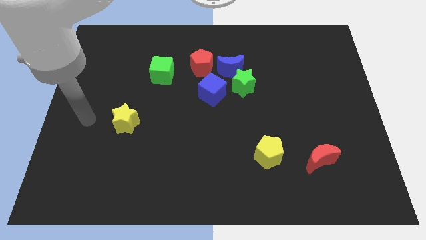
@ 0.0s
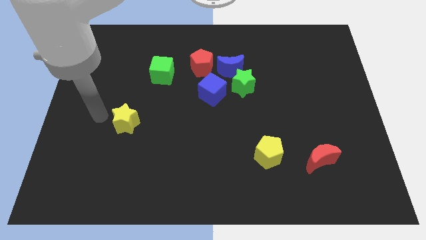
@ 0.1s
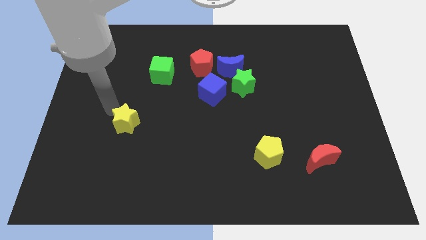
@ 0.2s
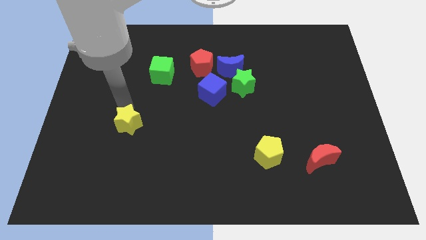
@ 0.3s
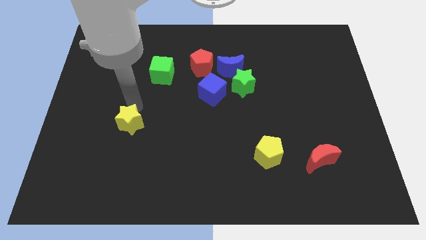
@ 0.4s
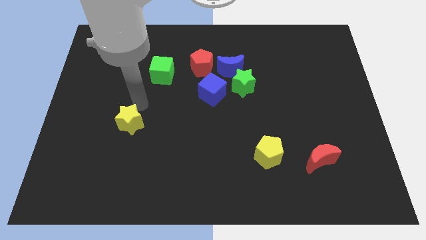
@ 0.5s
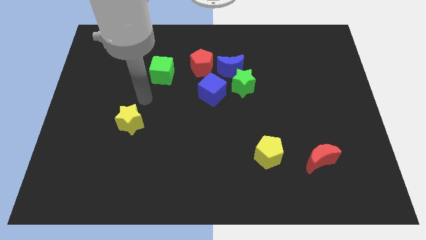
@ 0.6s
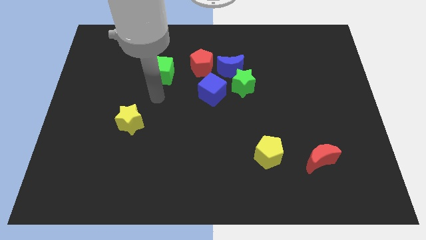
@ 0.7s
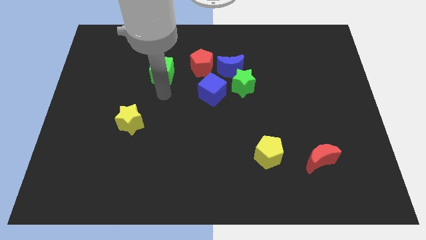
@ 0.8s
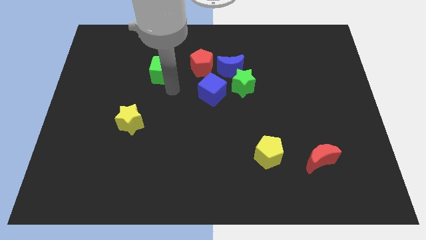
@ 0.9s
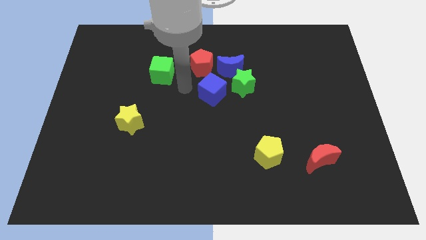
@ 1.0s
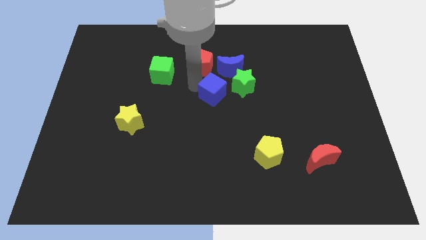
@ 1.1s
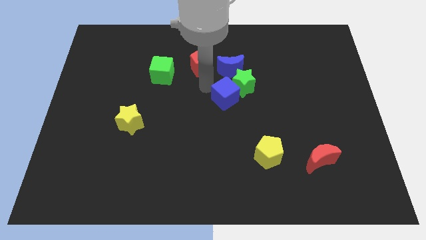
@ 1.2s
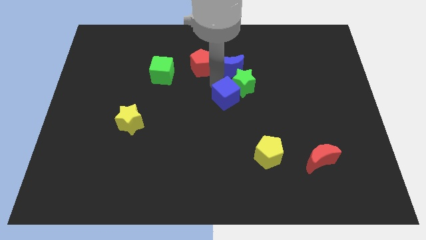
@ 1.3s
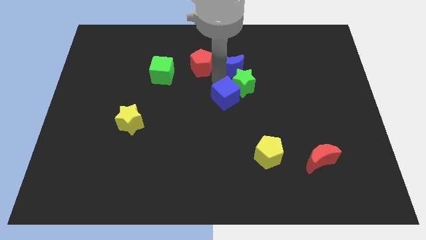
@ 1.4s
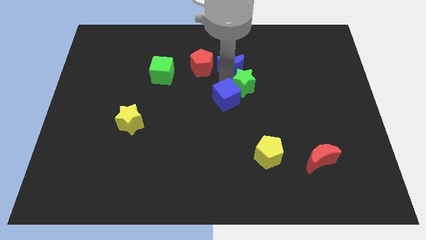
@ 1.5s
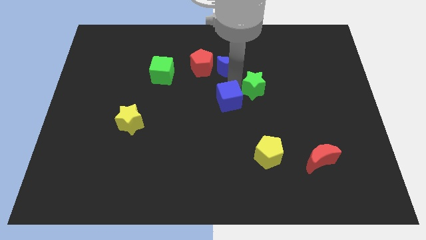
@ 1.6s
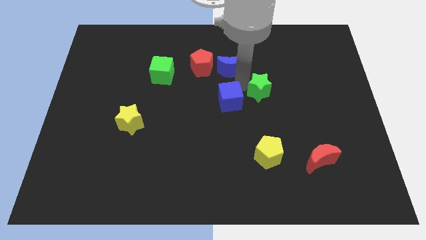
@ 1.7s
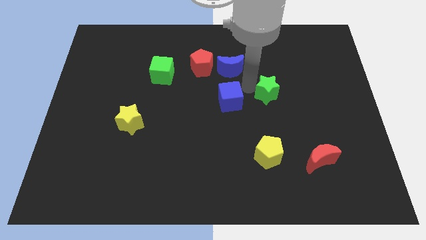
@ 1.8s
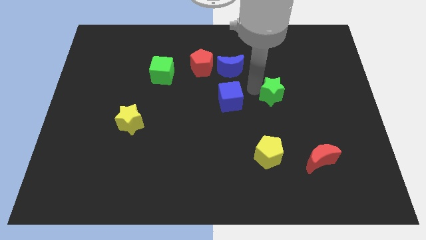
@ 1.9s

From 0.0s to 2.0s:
move the green star away from the blue moon and blue cube

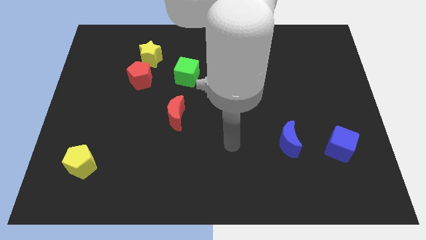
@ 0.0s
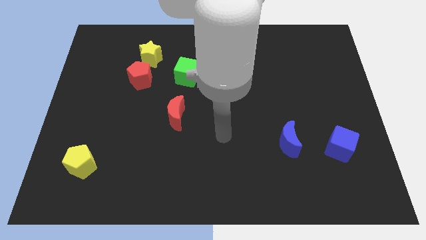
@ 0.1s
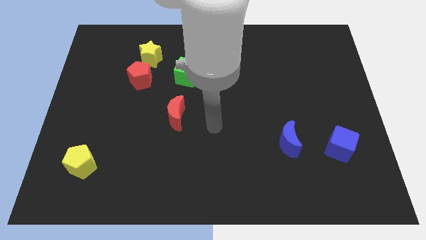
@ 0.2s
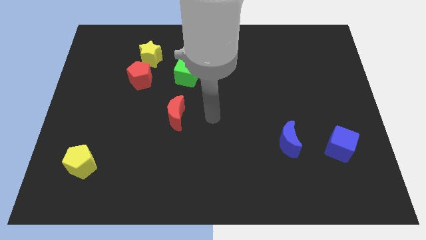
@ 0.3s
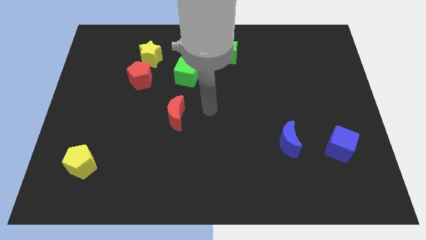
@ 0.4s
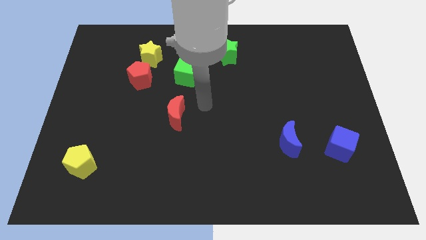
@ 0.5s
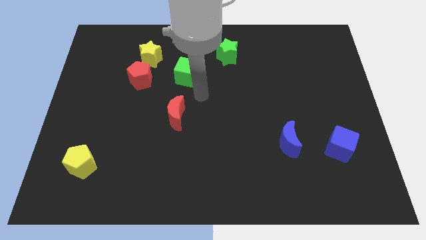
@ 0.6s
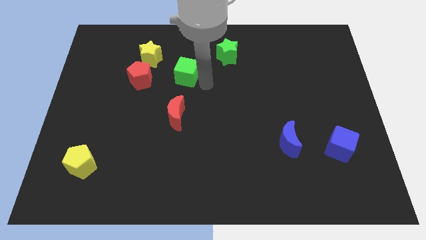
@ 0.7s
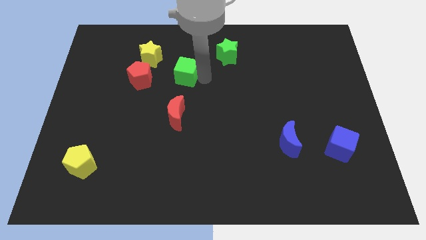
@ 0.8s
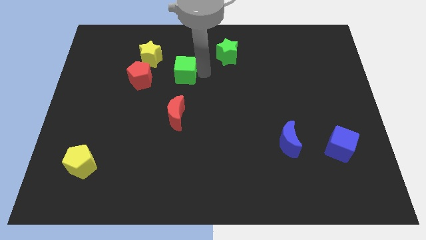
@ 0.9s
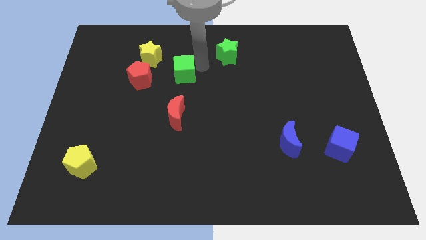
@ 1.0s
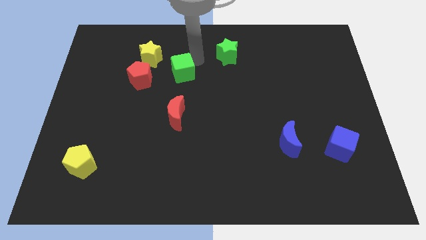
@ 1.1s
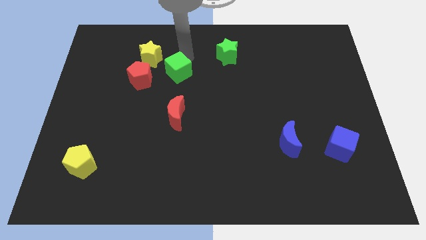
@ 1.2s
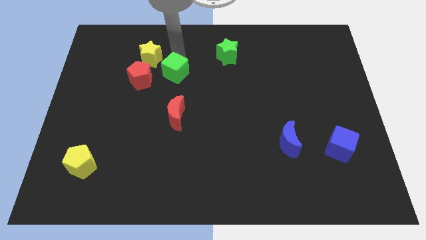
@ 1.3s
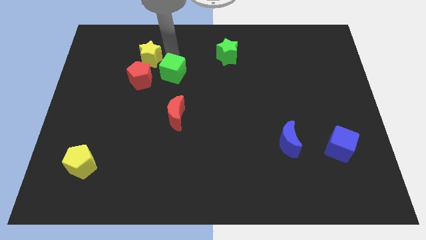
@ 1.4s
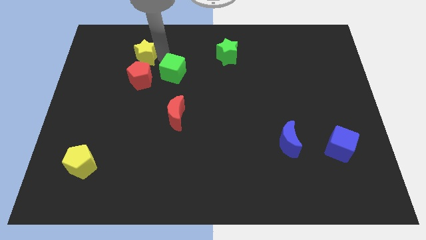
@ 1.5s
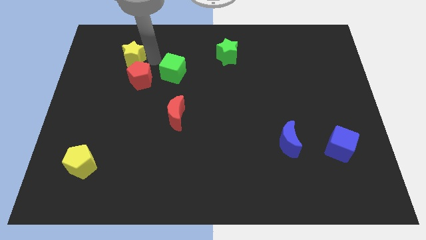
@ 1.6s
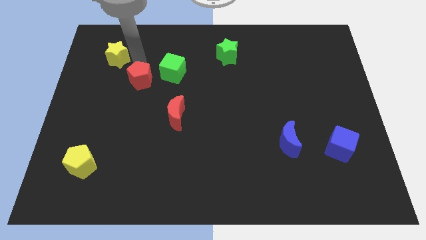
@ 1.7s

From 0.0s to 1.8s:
separate the red pentagon from the yellow star

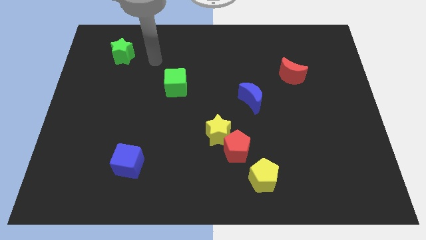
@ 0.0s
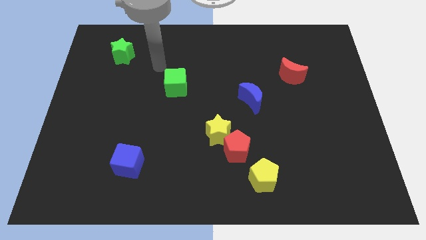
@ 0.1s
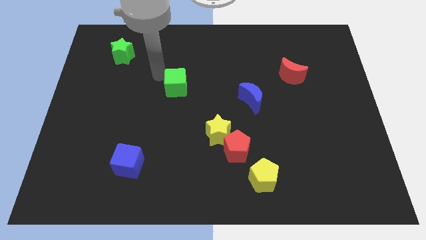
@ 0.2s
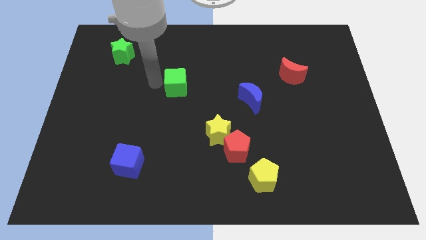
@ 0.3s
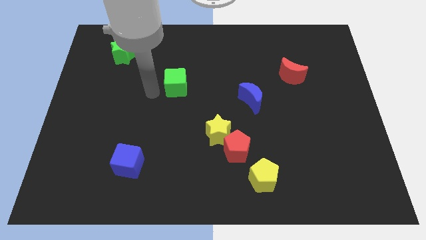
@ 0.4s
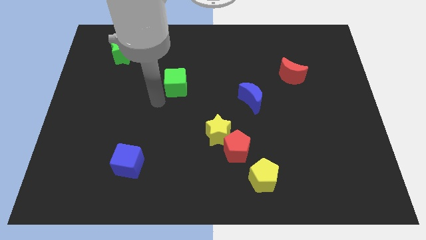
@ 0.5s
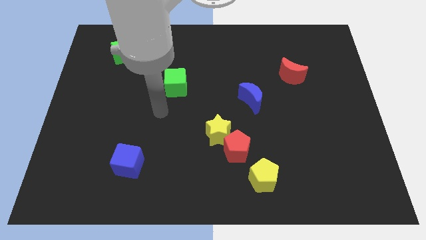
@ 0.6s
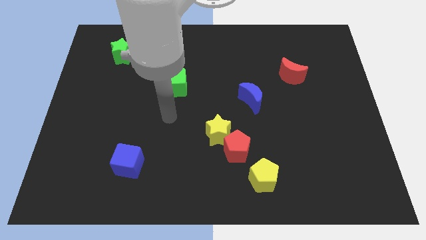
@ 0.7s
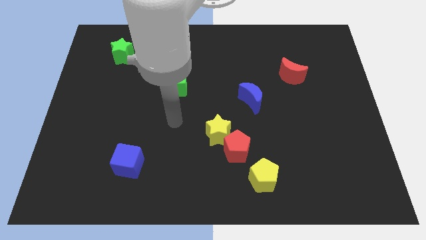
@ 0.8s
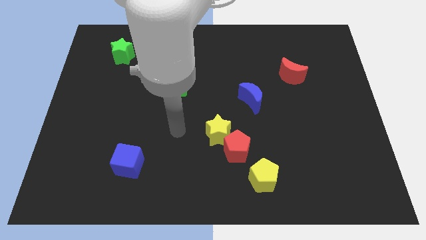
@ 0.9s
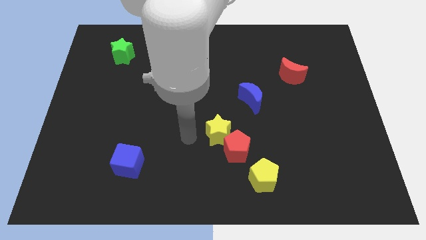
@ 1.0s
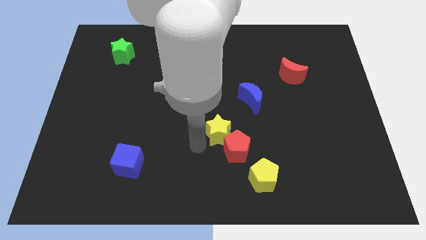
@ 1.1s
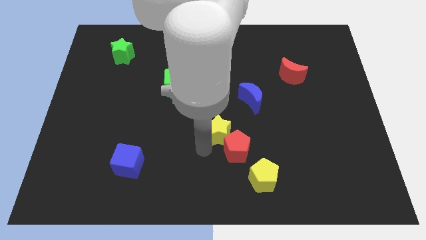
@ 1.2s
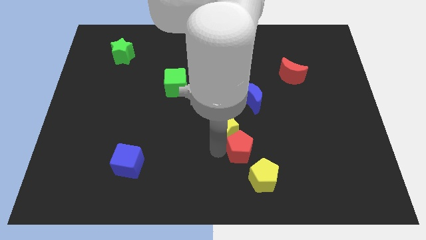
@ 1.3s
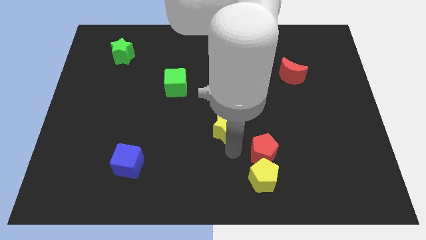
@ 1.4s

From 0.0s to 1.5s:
pull the yellow star apart from the red pentagon

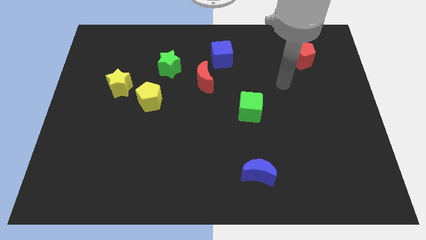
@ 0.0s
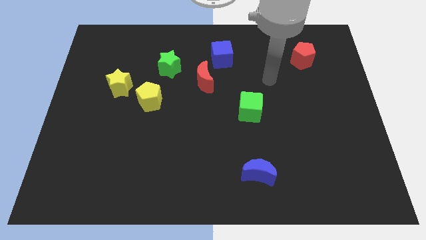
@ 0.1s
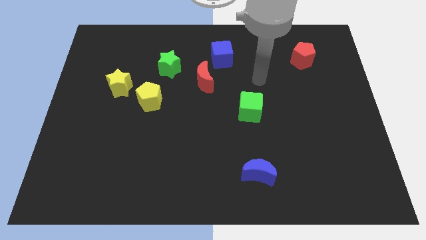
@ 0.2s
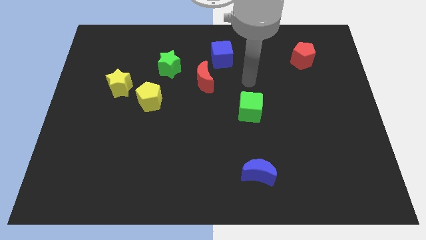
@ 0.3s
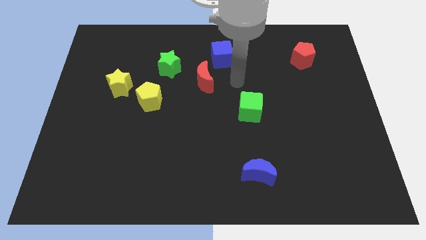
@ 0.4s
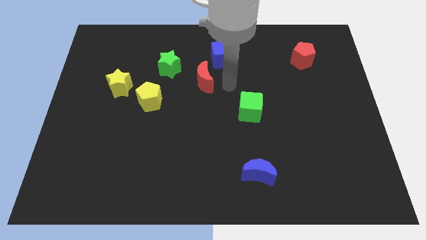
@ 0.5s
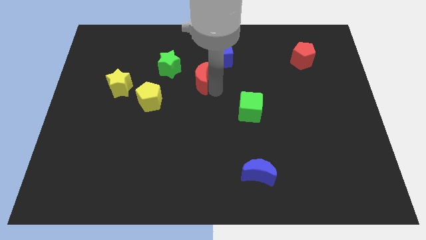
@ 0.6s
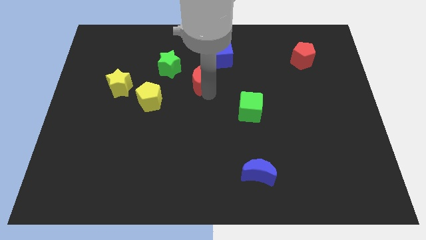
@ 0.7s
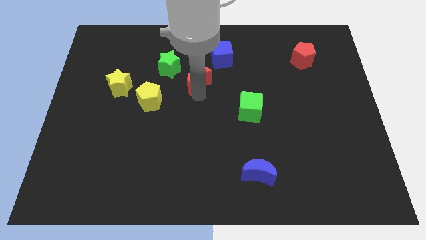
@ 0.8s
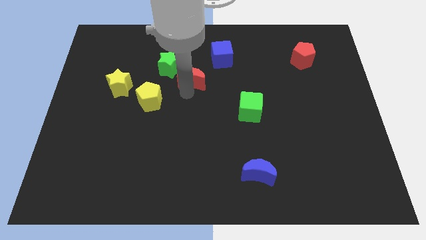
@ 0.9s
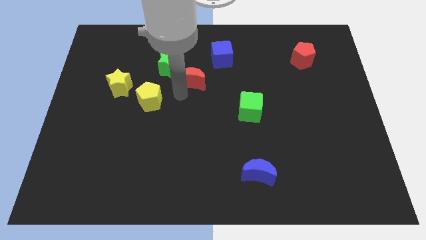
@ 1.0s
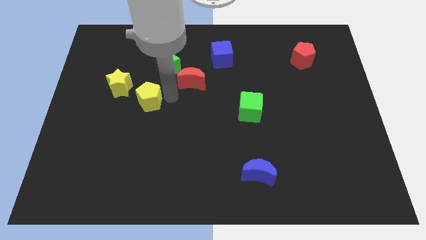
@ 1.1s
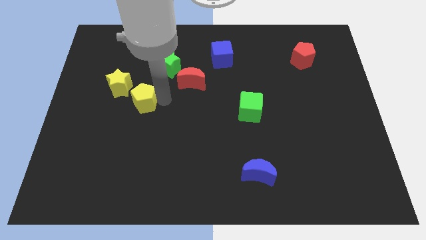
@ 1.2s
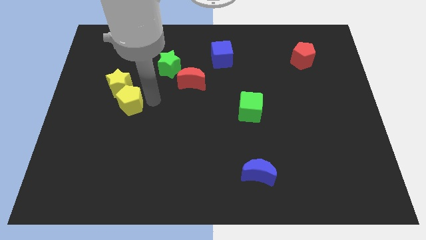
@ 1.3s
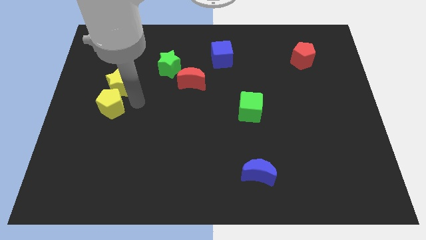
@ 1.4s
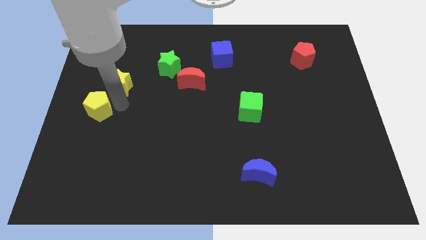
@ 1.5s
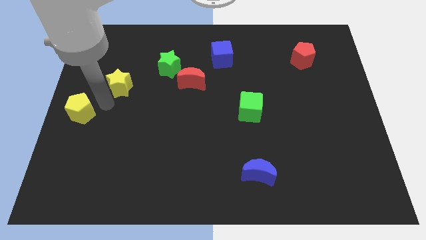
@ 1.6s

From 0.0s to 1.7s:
pull the yellow star apart from the yellow pentagon

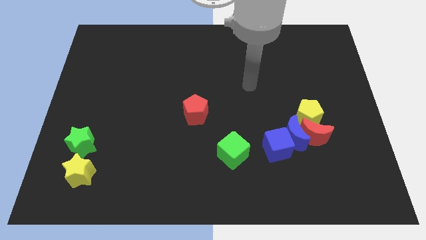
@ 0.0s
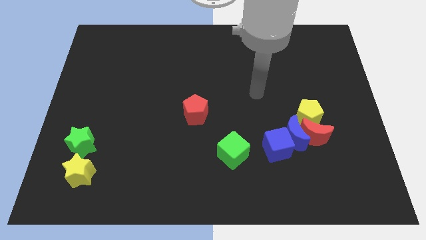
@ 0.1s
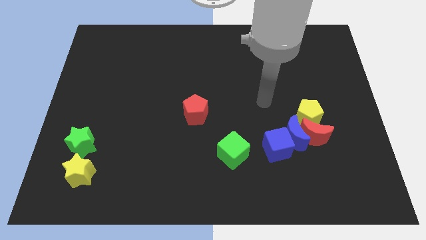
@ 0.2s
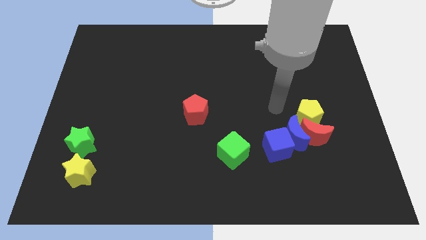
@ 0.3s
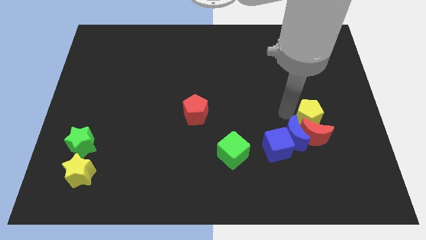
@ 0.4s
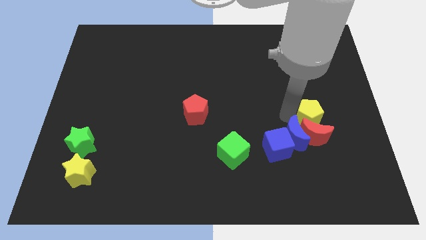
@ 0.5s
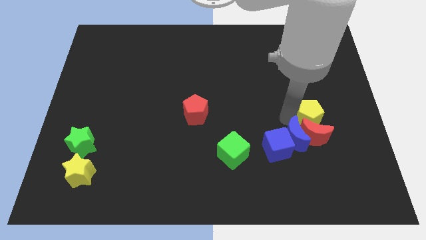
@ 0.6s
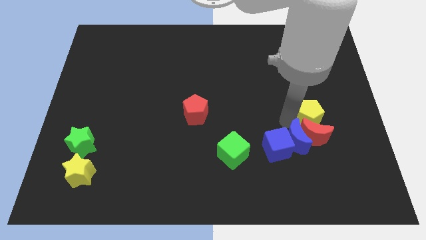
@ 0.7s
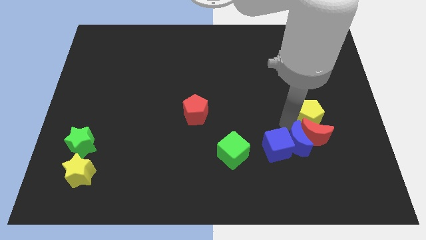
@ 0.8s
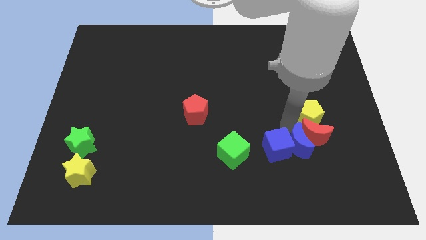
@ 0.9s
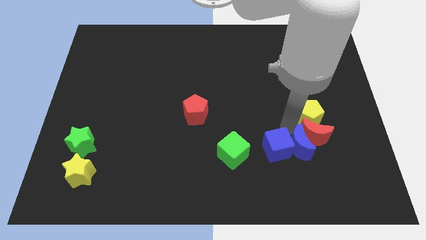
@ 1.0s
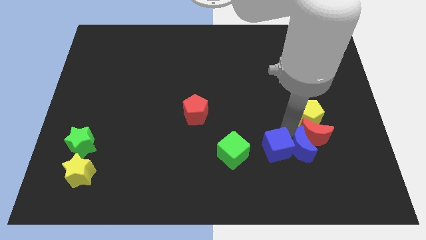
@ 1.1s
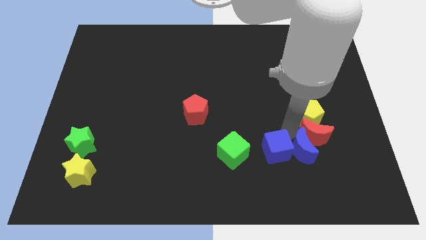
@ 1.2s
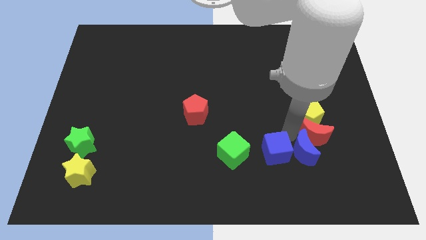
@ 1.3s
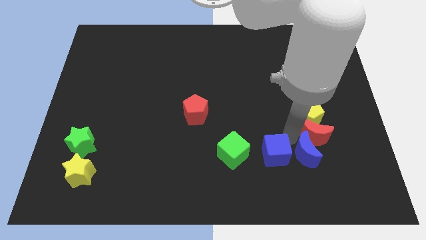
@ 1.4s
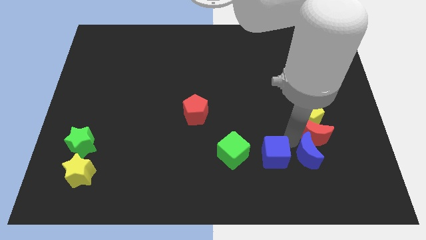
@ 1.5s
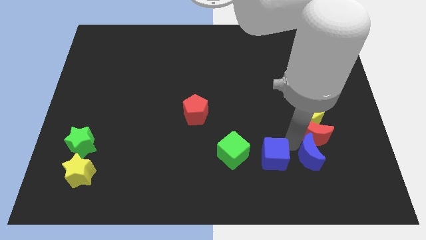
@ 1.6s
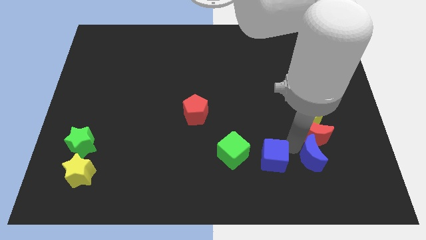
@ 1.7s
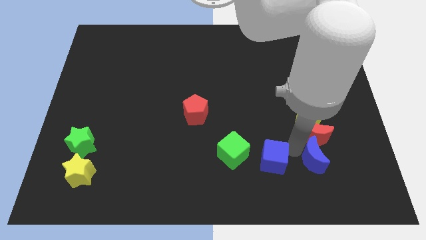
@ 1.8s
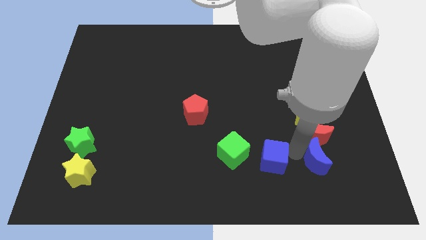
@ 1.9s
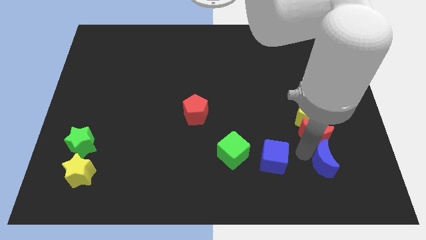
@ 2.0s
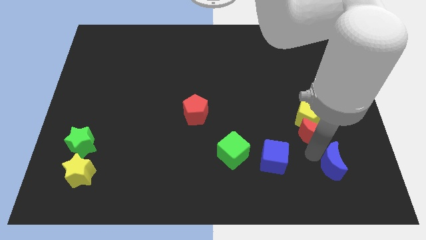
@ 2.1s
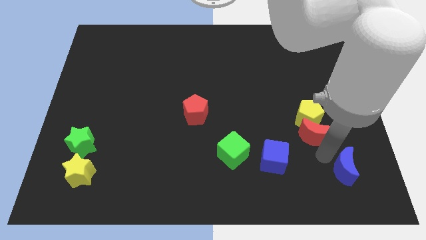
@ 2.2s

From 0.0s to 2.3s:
separate the blue moon from the group of blocks
